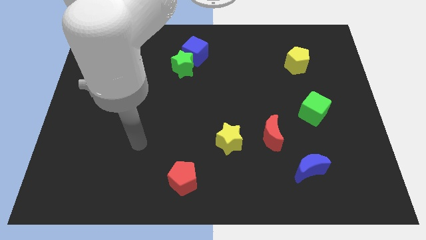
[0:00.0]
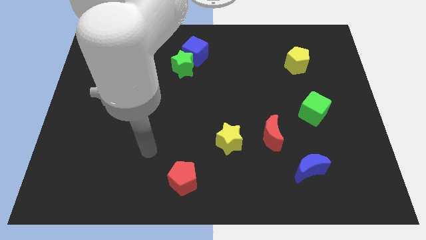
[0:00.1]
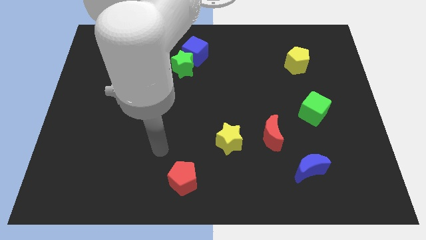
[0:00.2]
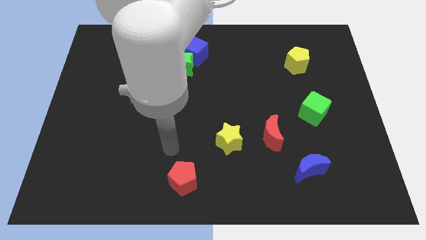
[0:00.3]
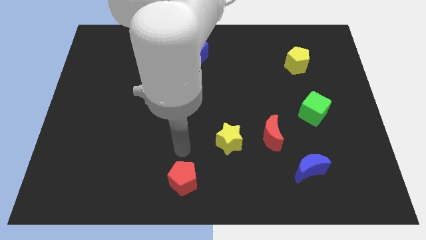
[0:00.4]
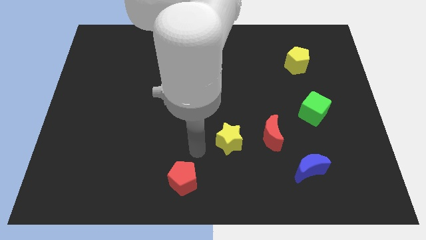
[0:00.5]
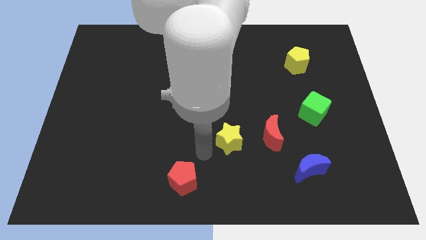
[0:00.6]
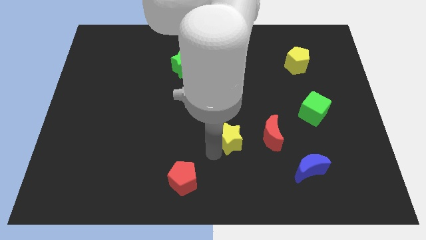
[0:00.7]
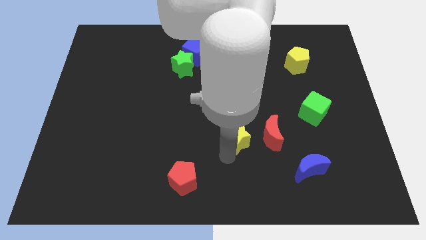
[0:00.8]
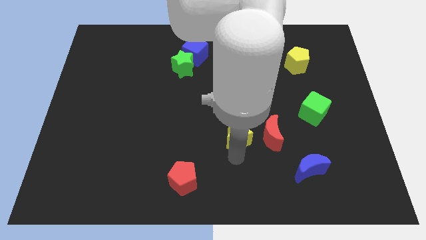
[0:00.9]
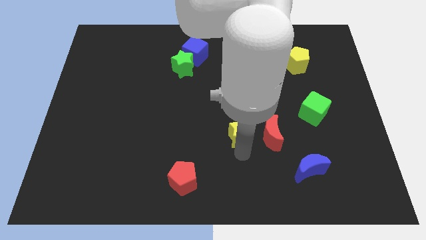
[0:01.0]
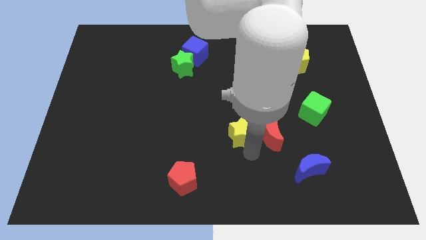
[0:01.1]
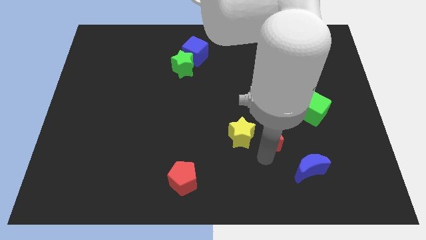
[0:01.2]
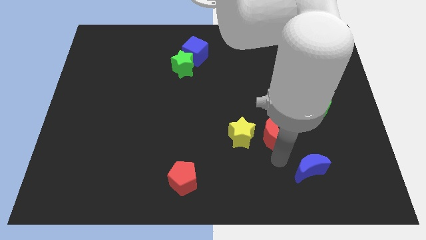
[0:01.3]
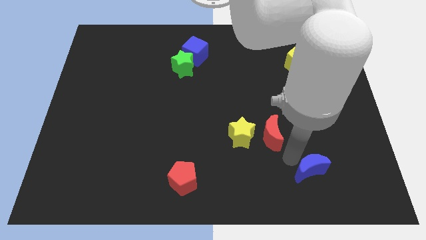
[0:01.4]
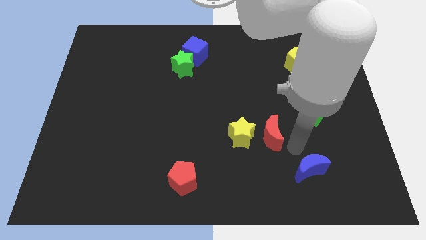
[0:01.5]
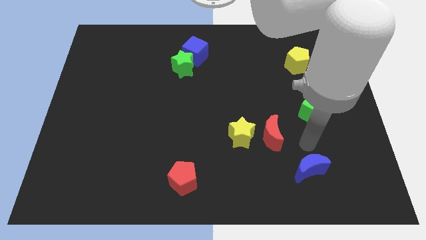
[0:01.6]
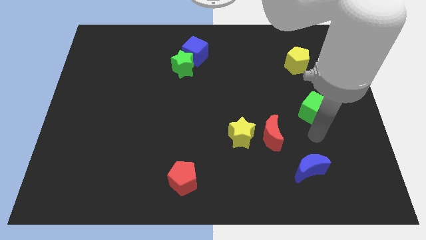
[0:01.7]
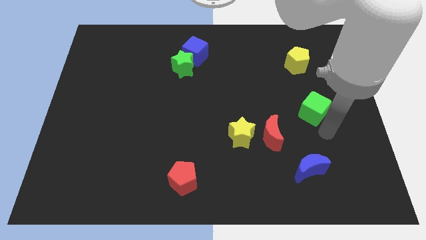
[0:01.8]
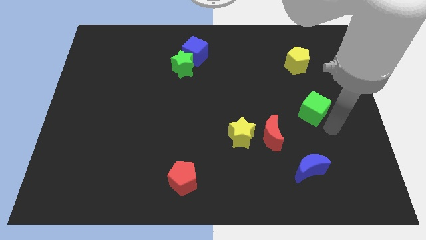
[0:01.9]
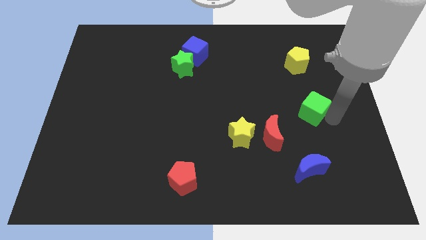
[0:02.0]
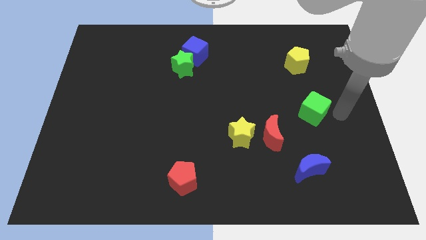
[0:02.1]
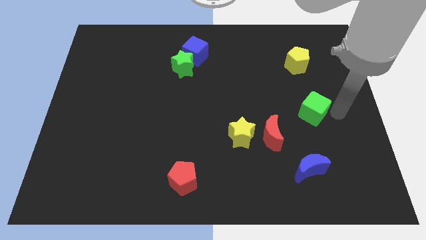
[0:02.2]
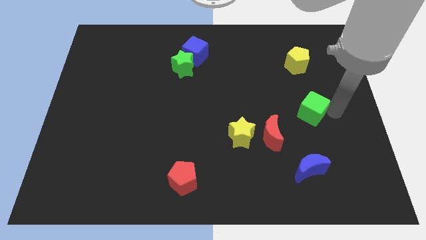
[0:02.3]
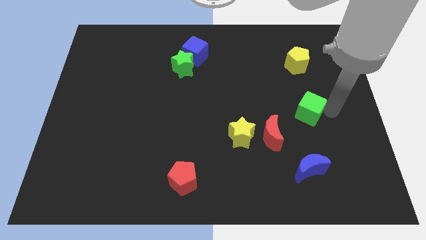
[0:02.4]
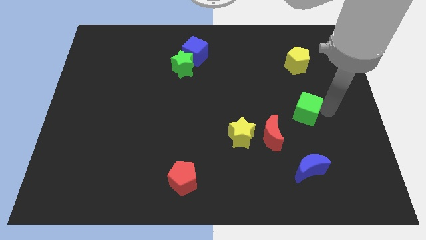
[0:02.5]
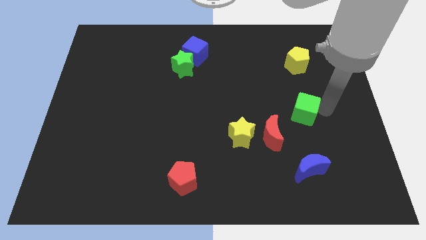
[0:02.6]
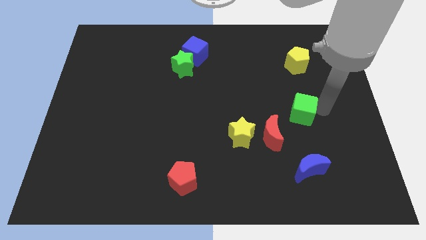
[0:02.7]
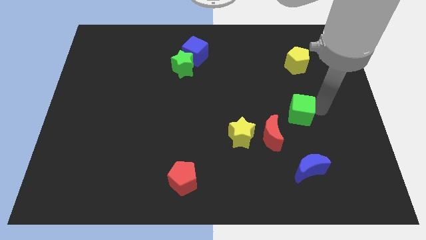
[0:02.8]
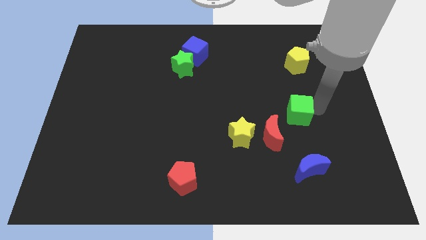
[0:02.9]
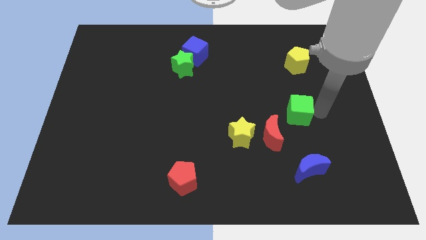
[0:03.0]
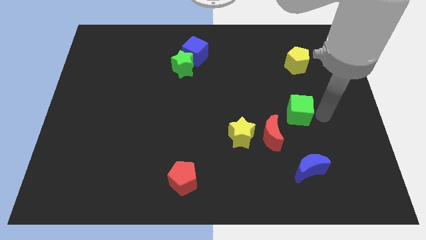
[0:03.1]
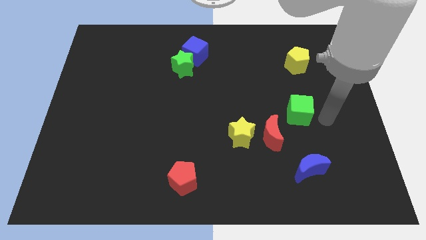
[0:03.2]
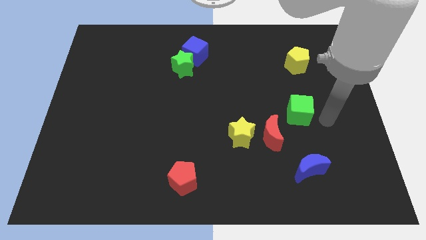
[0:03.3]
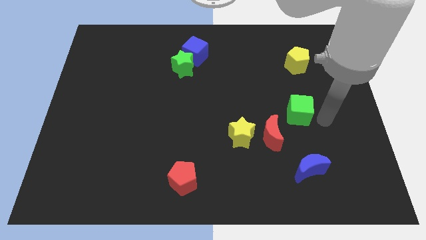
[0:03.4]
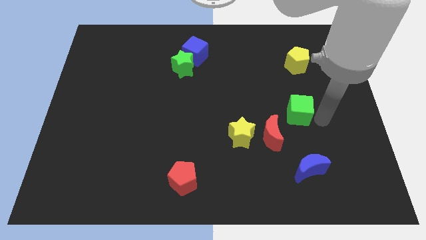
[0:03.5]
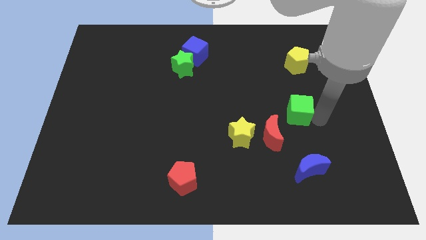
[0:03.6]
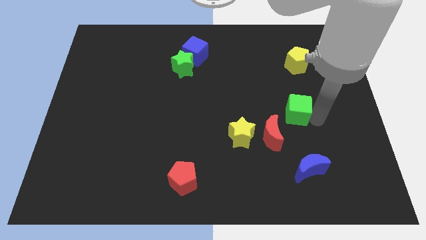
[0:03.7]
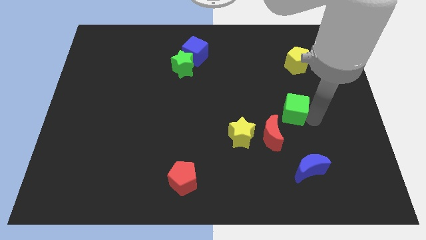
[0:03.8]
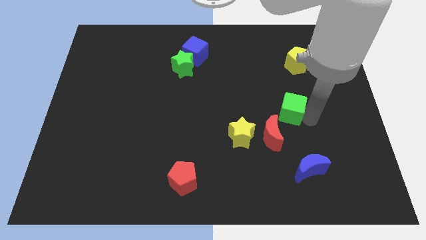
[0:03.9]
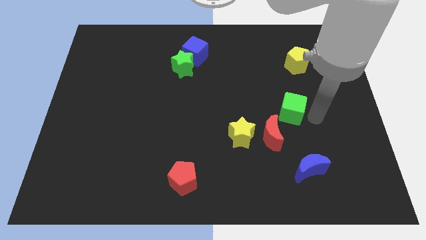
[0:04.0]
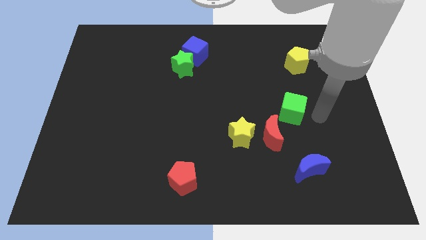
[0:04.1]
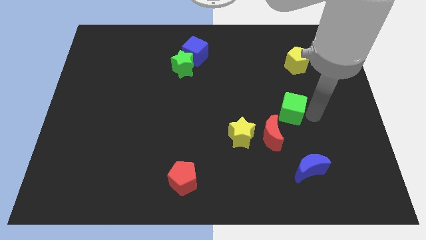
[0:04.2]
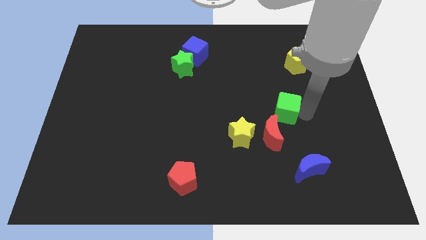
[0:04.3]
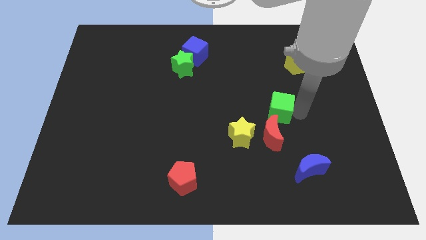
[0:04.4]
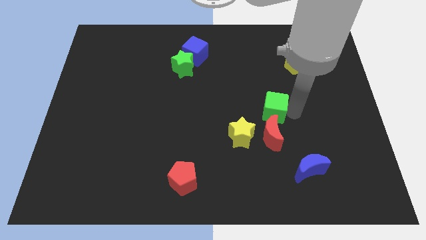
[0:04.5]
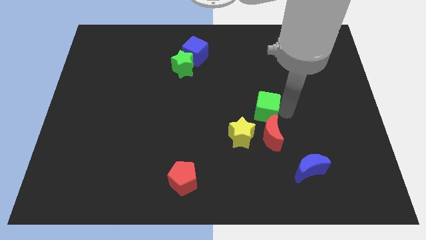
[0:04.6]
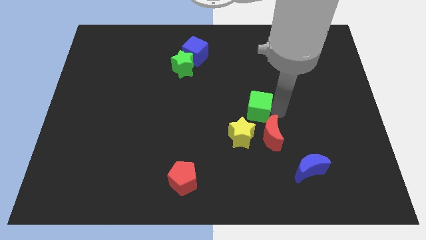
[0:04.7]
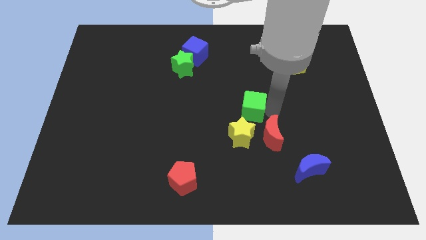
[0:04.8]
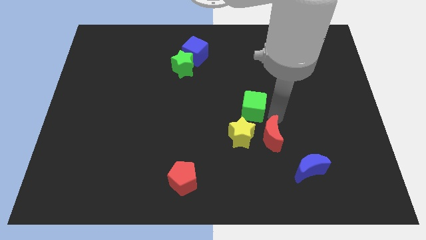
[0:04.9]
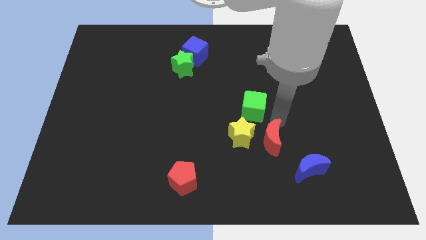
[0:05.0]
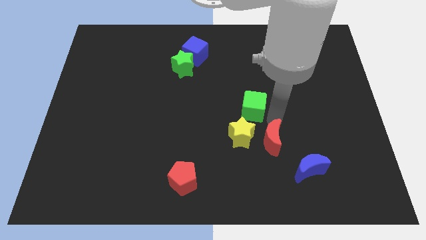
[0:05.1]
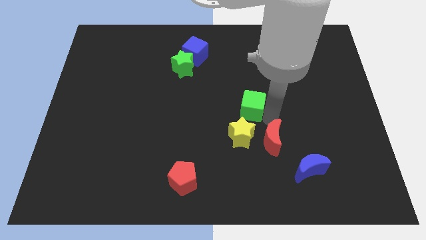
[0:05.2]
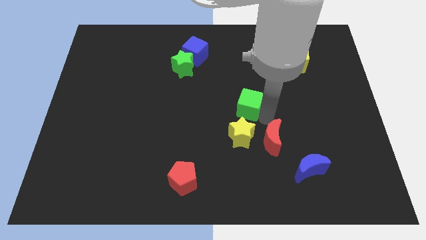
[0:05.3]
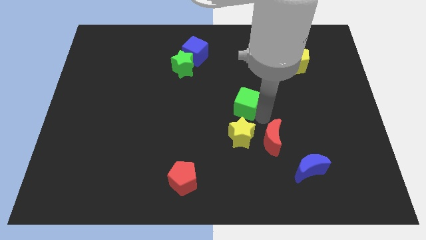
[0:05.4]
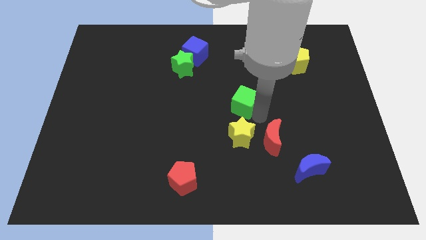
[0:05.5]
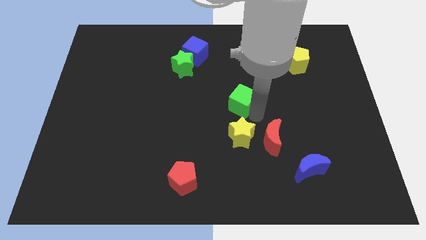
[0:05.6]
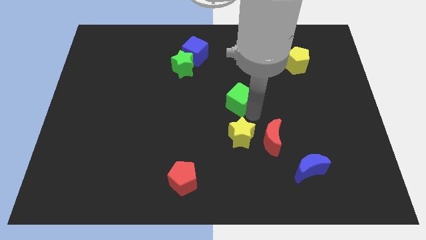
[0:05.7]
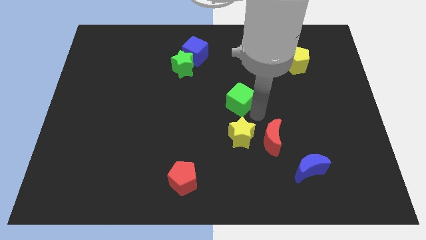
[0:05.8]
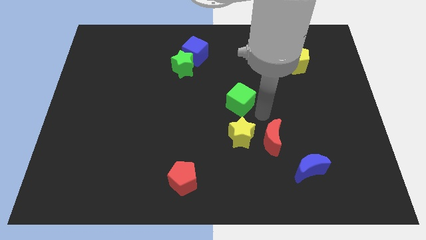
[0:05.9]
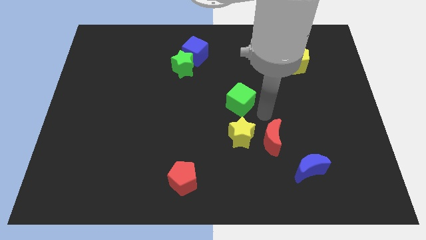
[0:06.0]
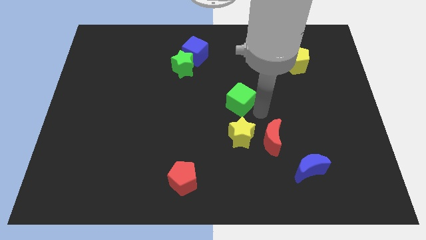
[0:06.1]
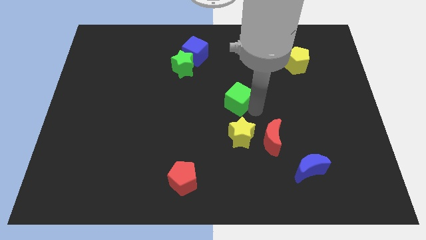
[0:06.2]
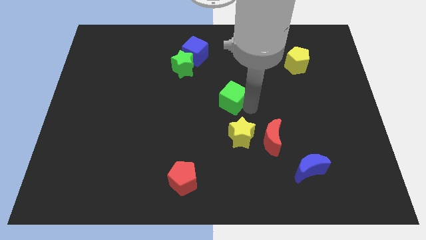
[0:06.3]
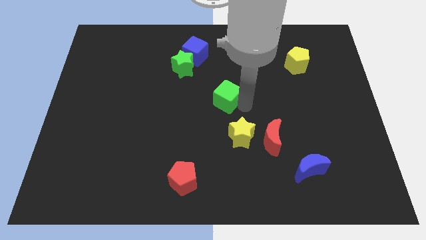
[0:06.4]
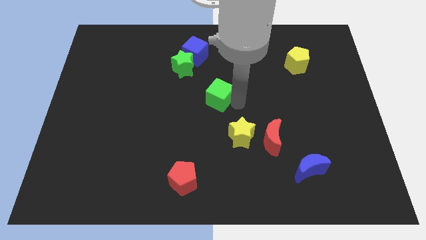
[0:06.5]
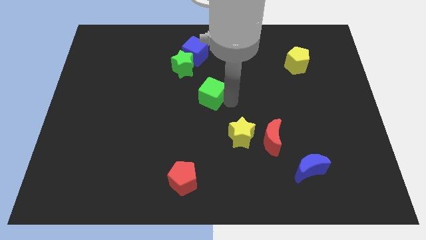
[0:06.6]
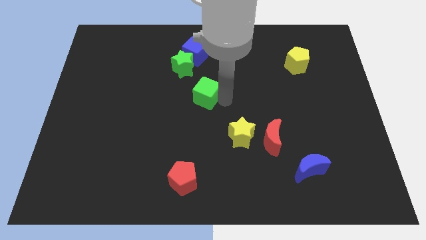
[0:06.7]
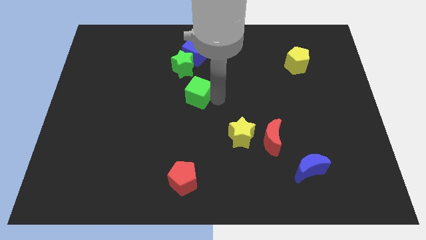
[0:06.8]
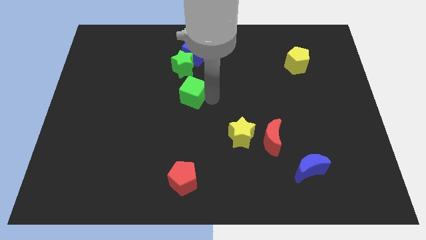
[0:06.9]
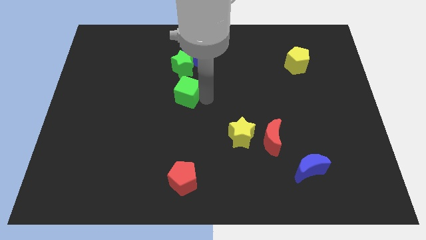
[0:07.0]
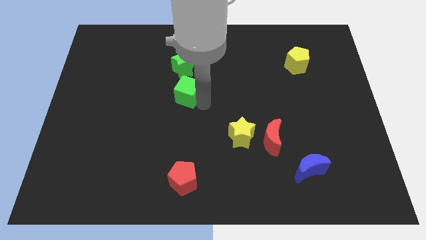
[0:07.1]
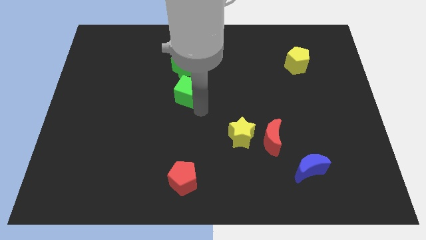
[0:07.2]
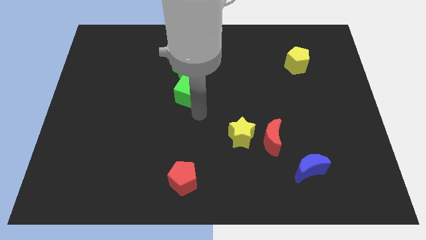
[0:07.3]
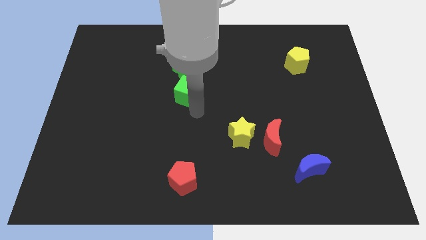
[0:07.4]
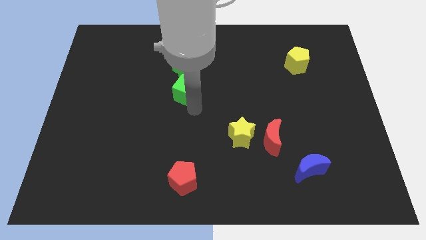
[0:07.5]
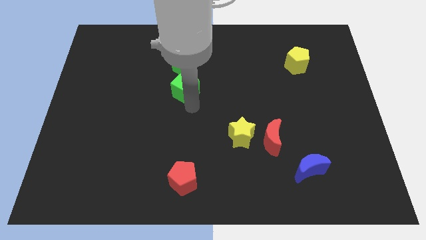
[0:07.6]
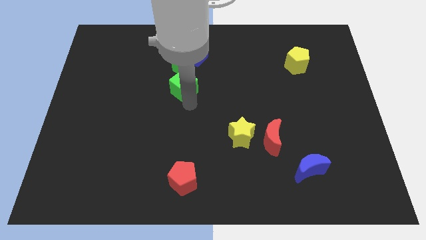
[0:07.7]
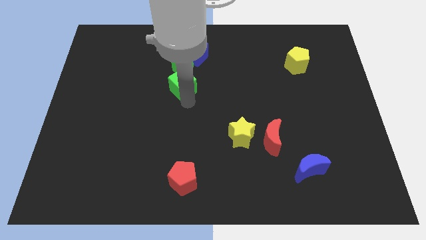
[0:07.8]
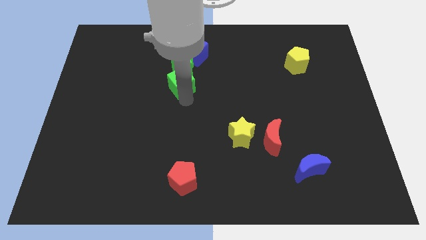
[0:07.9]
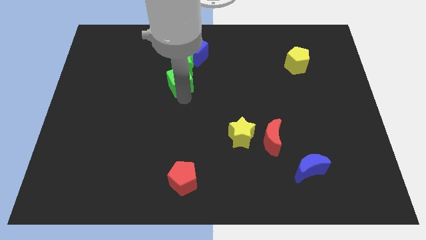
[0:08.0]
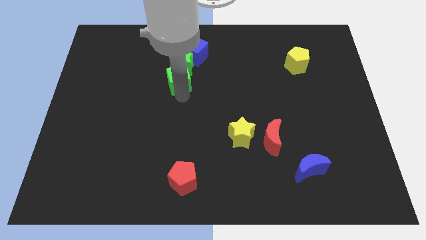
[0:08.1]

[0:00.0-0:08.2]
push the green cube diagonally down and to the left of the blue cube
